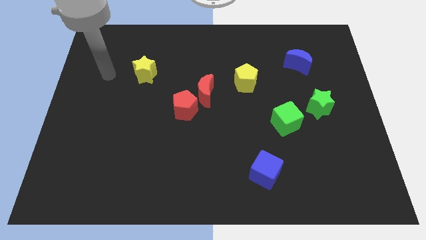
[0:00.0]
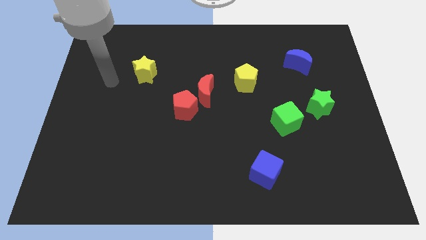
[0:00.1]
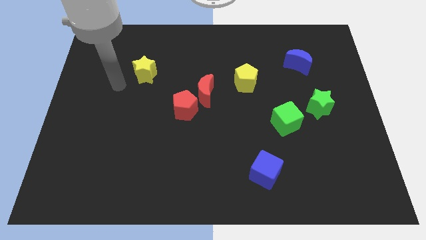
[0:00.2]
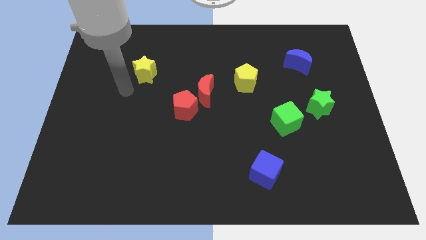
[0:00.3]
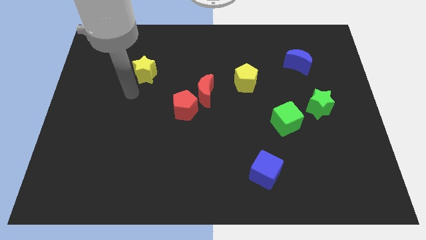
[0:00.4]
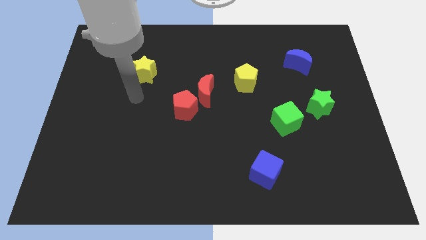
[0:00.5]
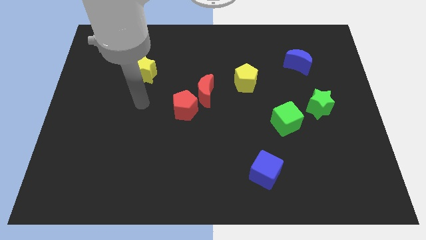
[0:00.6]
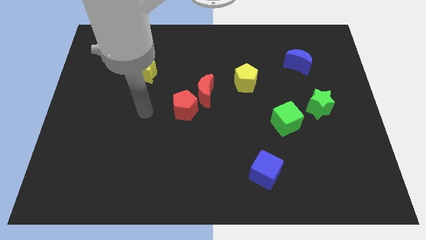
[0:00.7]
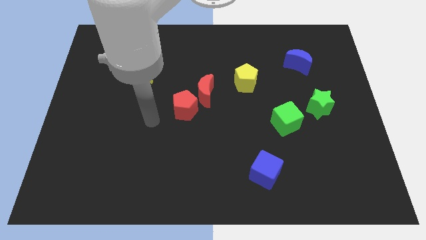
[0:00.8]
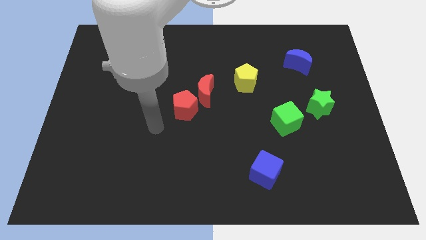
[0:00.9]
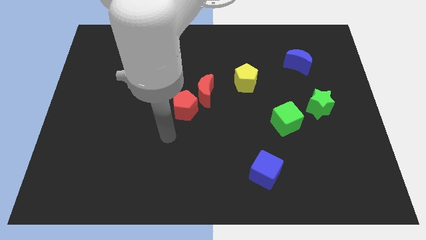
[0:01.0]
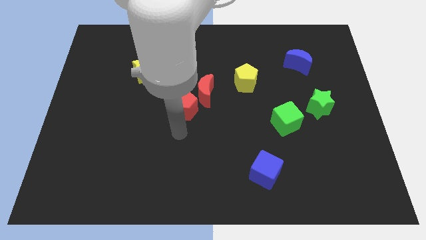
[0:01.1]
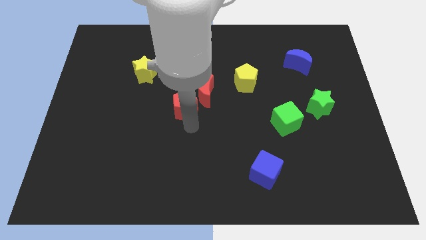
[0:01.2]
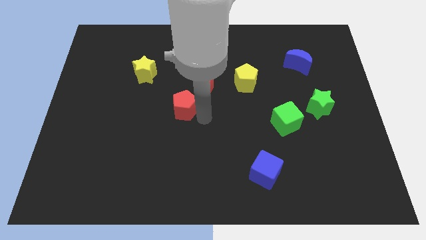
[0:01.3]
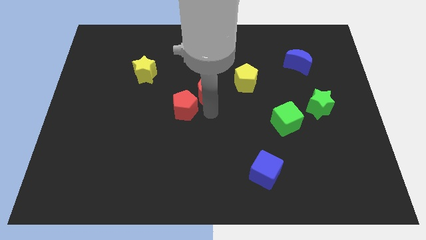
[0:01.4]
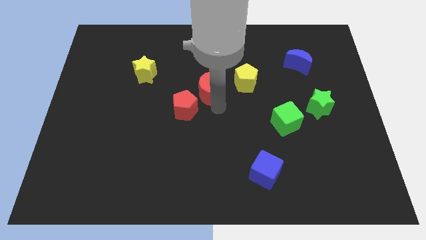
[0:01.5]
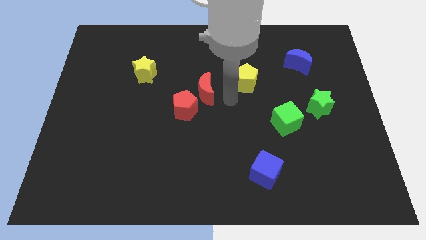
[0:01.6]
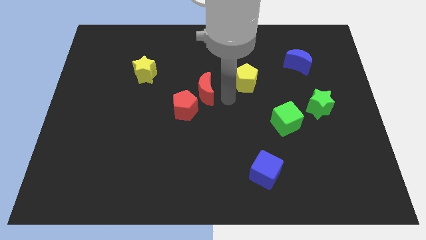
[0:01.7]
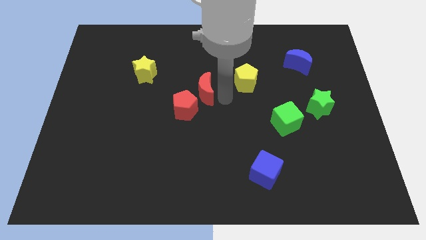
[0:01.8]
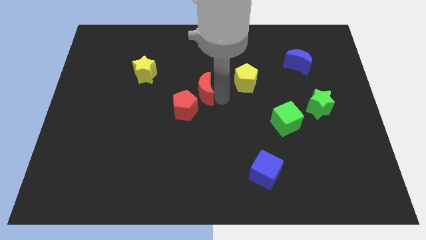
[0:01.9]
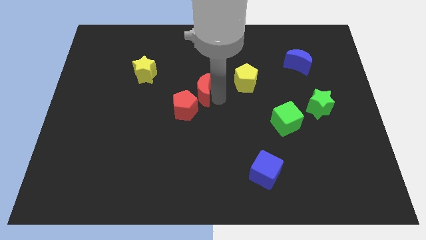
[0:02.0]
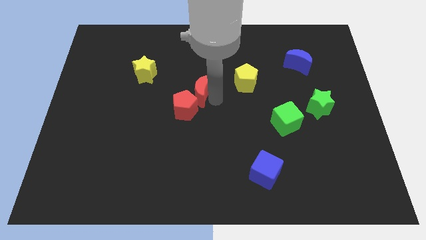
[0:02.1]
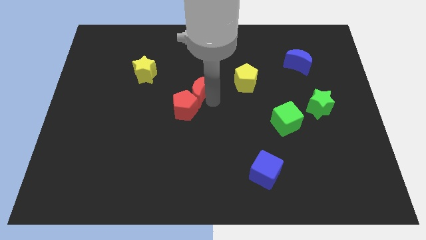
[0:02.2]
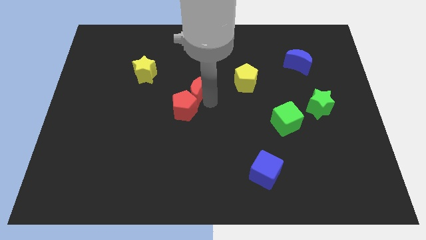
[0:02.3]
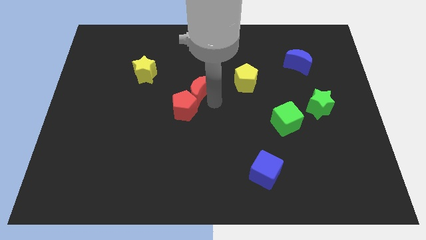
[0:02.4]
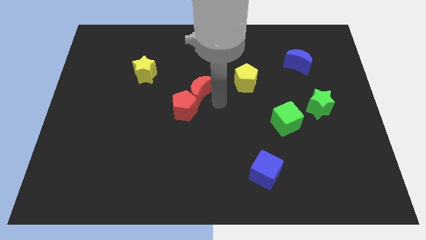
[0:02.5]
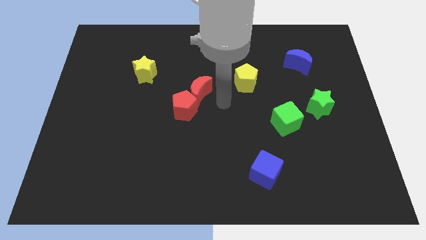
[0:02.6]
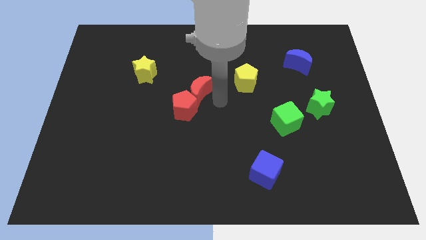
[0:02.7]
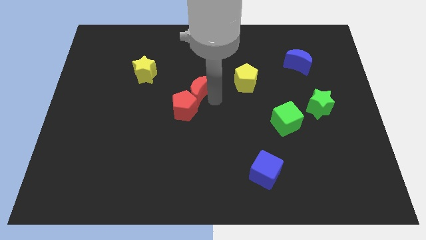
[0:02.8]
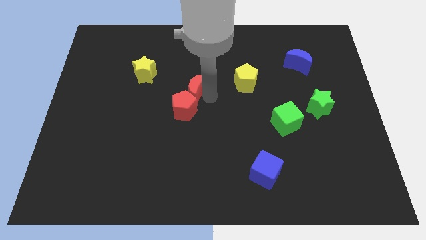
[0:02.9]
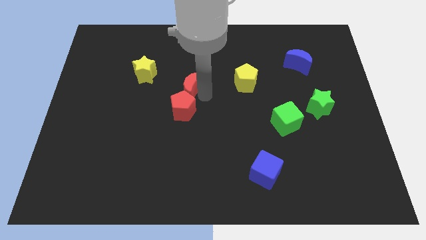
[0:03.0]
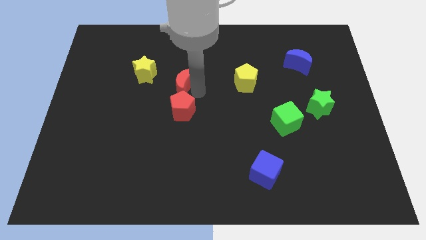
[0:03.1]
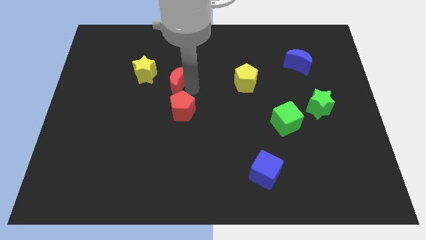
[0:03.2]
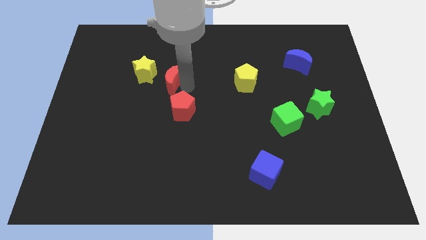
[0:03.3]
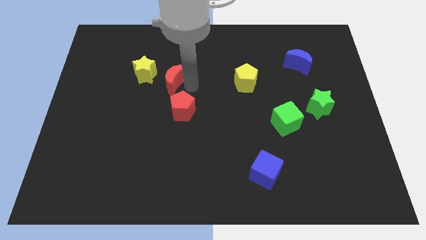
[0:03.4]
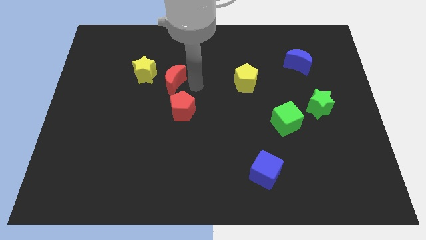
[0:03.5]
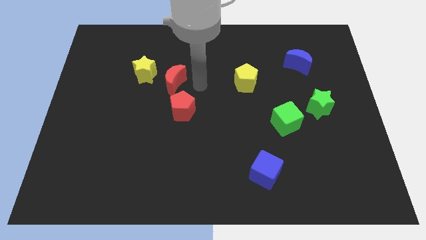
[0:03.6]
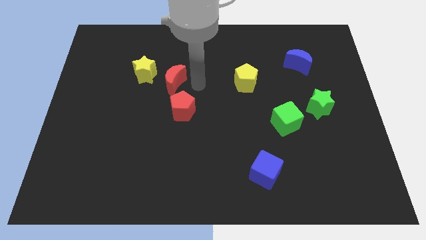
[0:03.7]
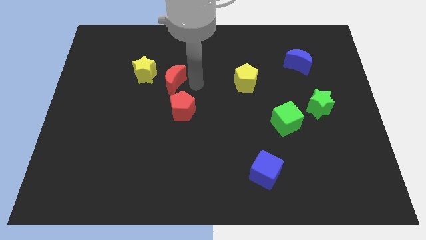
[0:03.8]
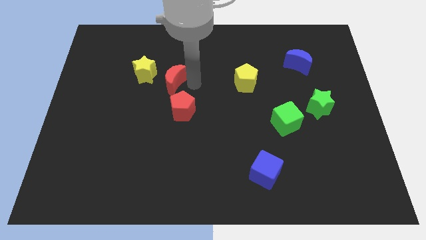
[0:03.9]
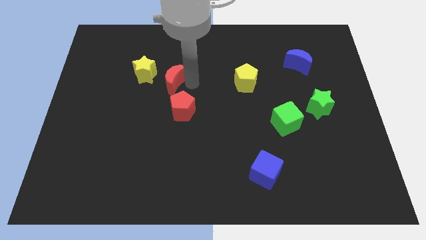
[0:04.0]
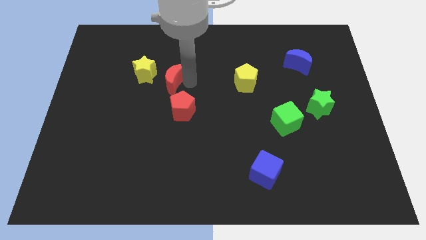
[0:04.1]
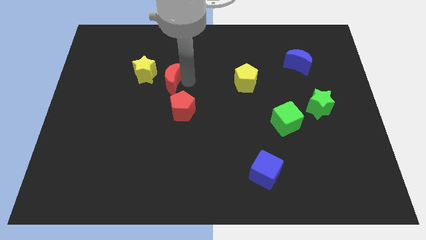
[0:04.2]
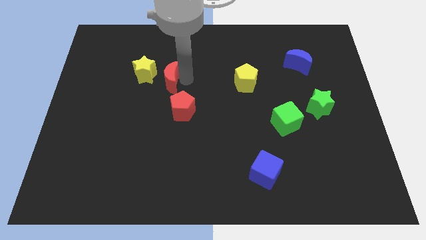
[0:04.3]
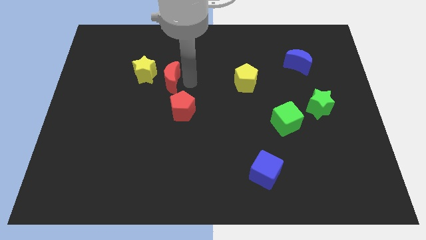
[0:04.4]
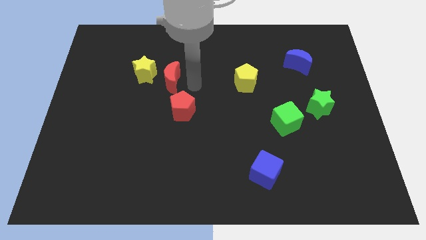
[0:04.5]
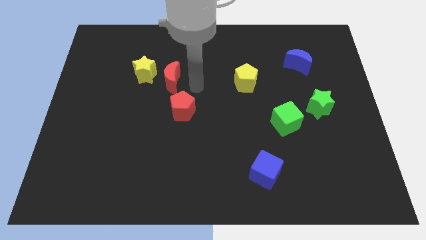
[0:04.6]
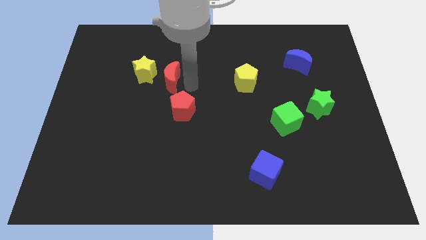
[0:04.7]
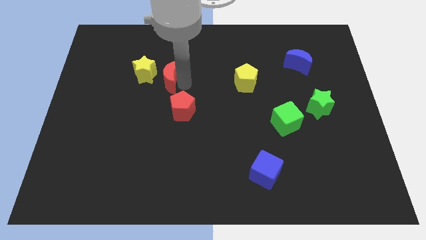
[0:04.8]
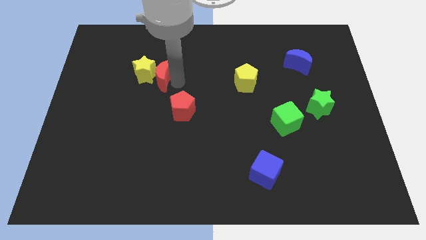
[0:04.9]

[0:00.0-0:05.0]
slide the red moon to the yellow star

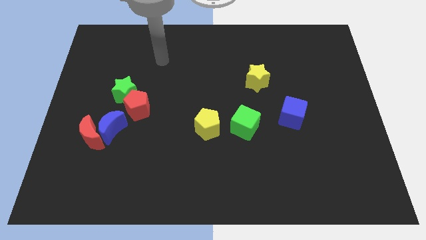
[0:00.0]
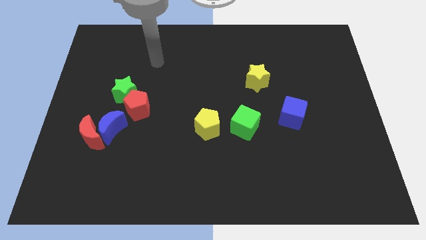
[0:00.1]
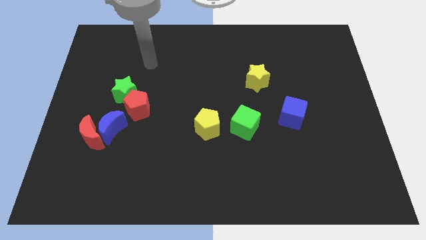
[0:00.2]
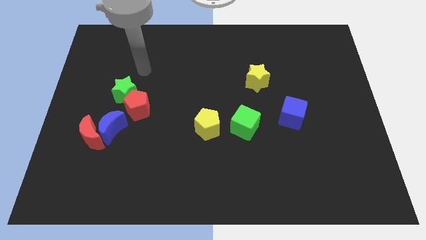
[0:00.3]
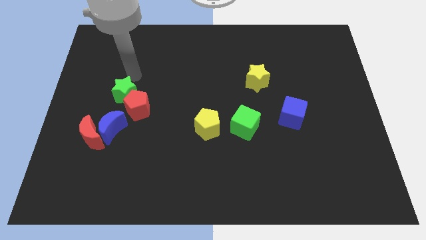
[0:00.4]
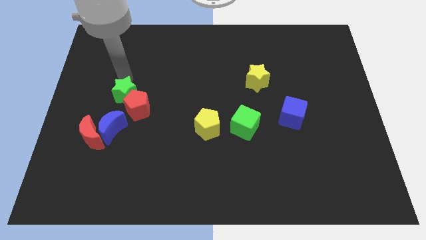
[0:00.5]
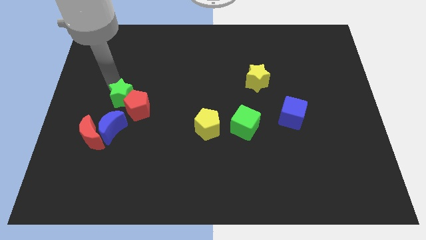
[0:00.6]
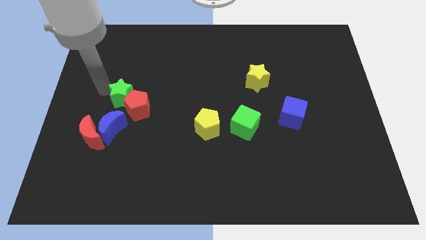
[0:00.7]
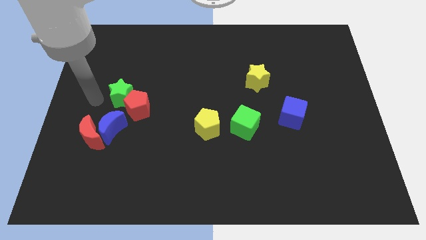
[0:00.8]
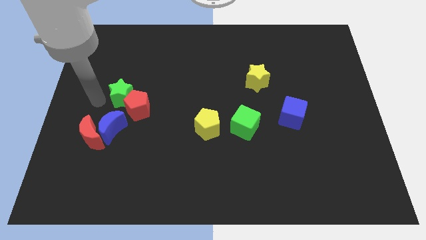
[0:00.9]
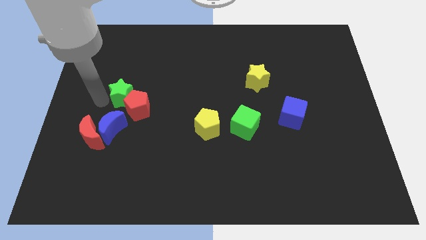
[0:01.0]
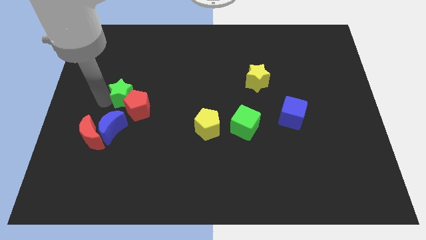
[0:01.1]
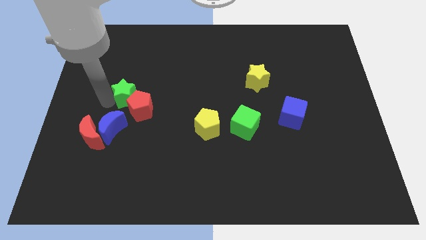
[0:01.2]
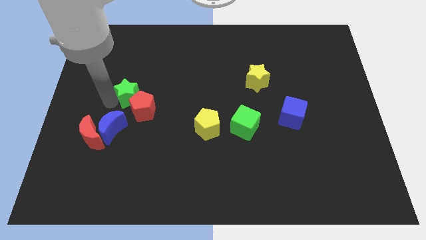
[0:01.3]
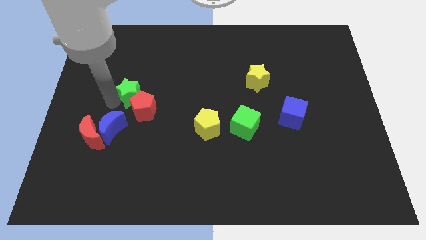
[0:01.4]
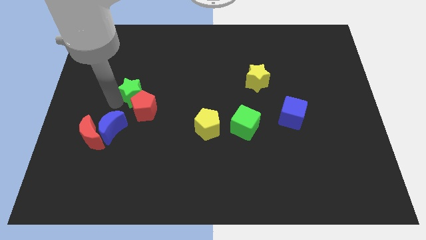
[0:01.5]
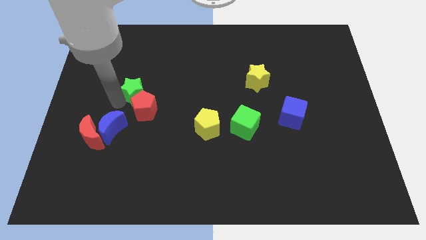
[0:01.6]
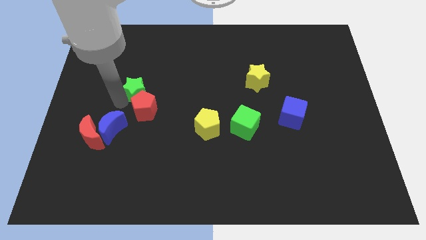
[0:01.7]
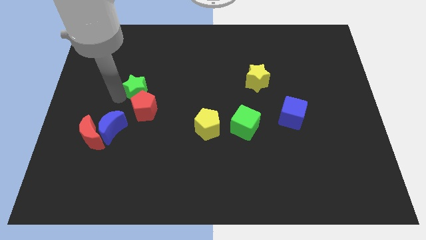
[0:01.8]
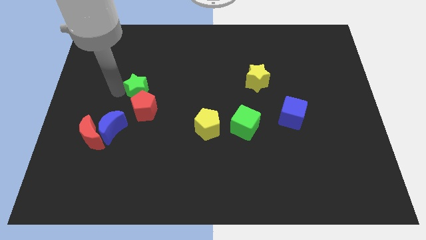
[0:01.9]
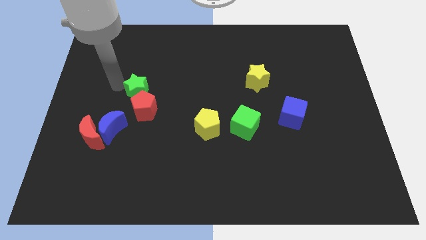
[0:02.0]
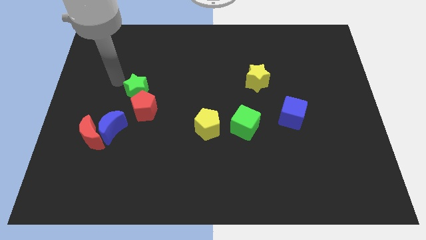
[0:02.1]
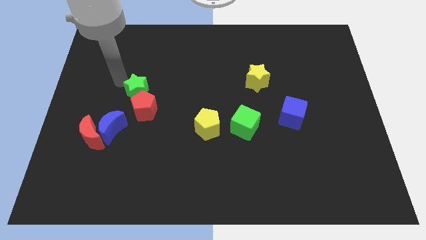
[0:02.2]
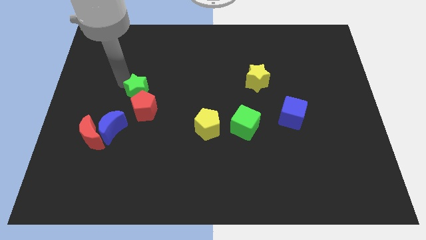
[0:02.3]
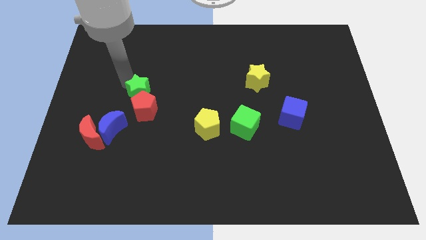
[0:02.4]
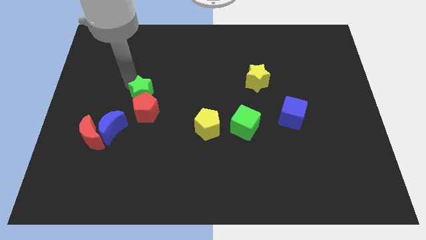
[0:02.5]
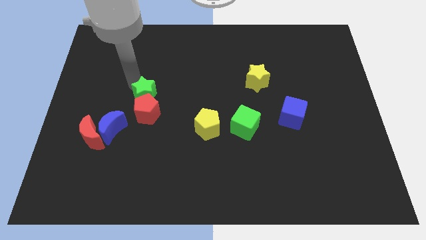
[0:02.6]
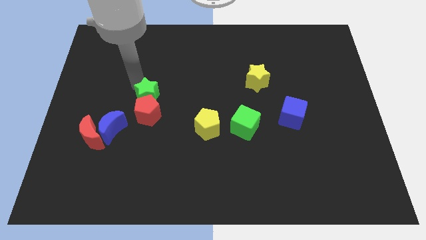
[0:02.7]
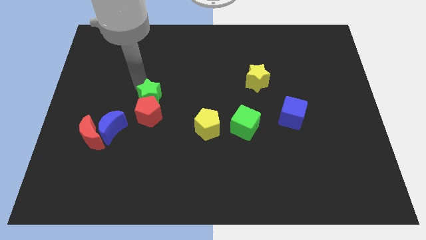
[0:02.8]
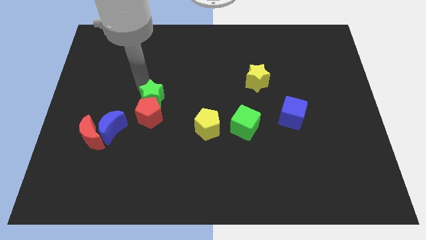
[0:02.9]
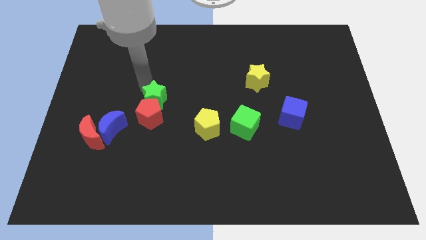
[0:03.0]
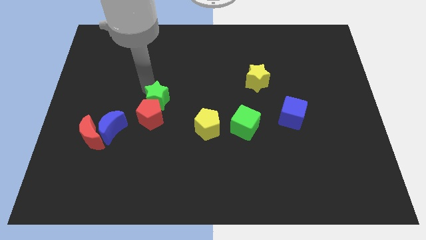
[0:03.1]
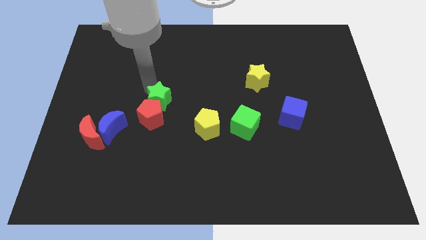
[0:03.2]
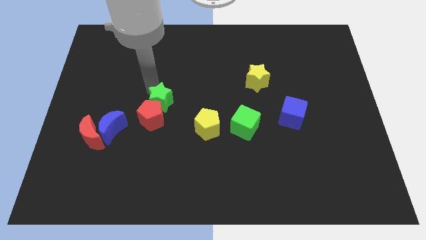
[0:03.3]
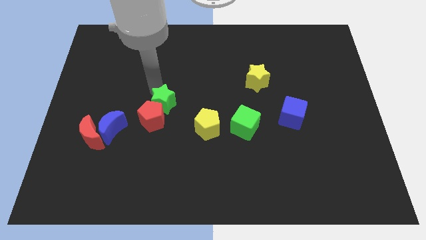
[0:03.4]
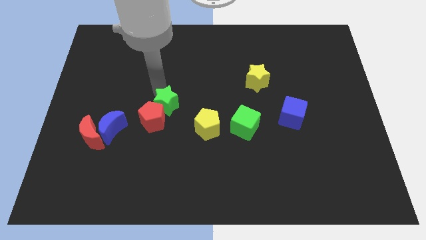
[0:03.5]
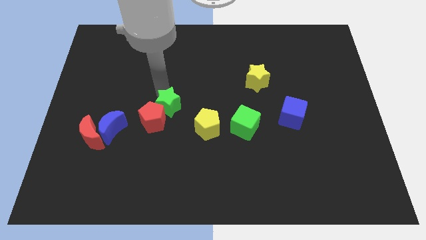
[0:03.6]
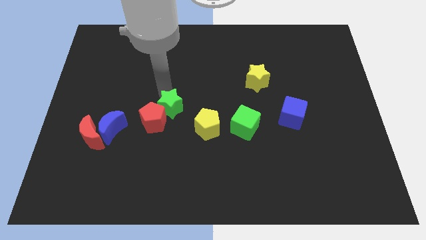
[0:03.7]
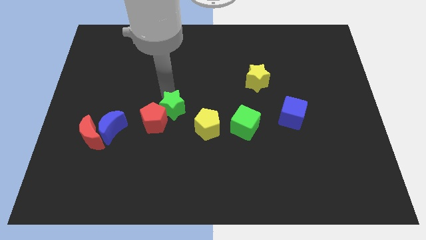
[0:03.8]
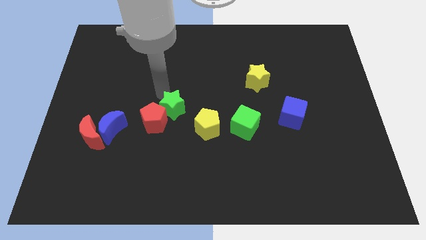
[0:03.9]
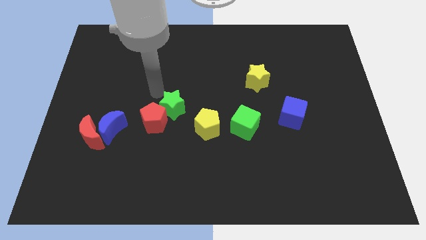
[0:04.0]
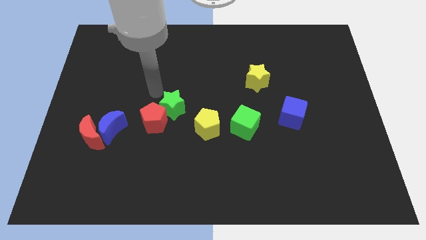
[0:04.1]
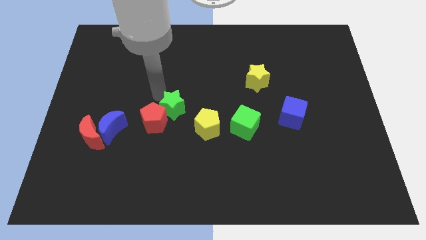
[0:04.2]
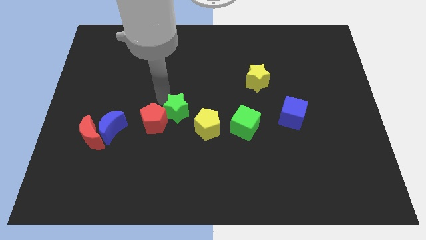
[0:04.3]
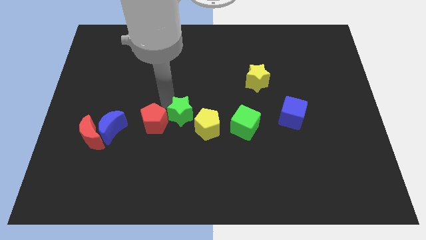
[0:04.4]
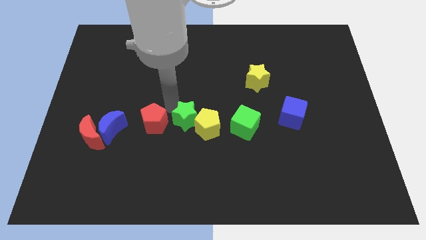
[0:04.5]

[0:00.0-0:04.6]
push the green star to the yellow pentagon
